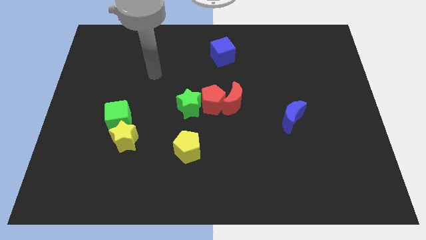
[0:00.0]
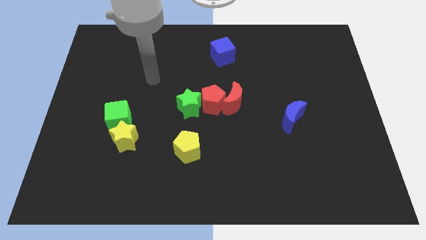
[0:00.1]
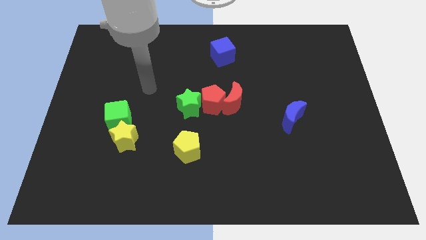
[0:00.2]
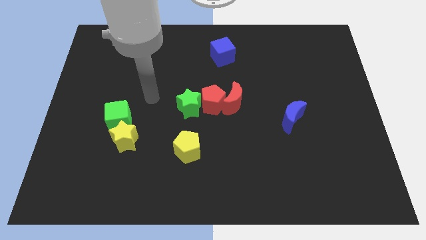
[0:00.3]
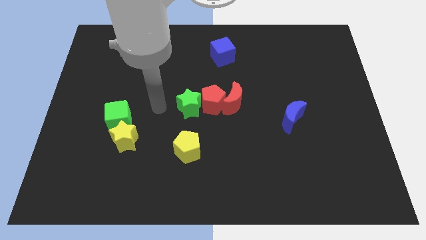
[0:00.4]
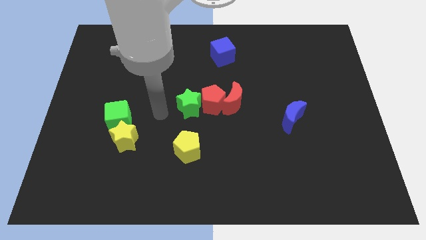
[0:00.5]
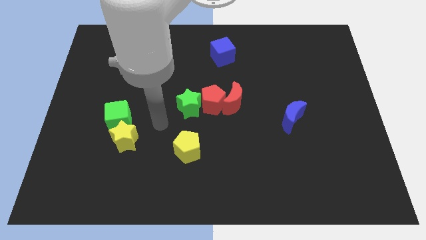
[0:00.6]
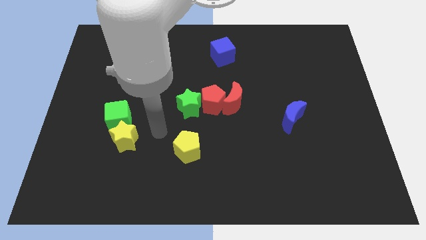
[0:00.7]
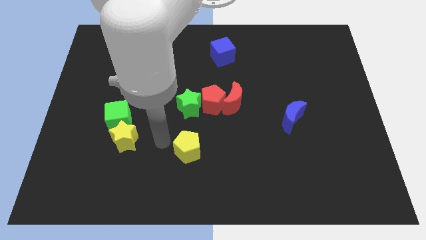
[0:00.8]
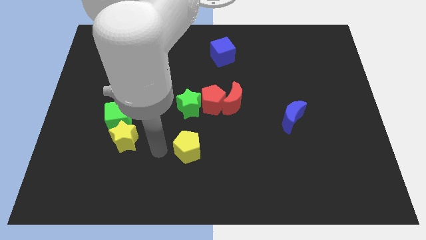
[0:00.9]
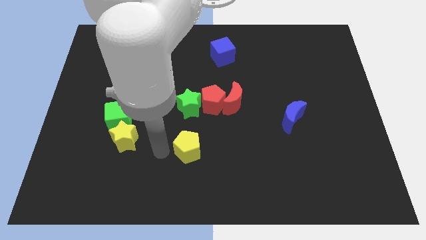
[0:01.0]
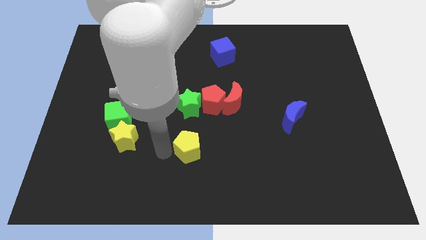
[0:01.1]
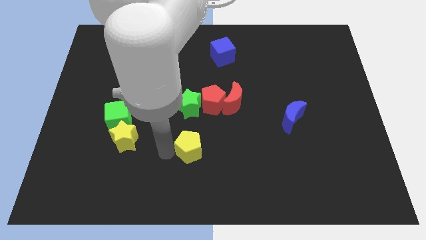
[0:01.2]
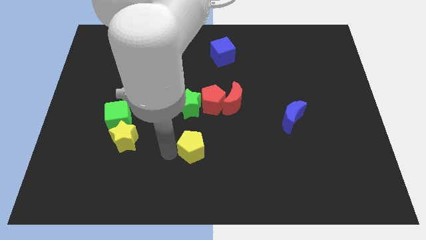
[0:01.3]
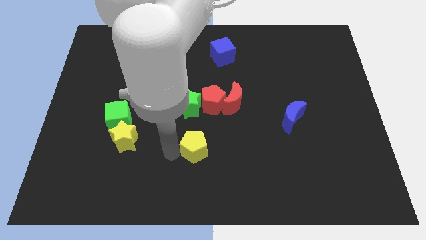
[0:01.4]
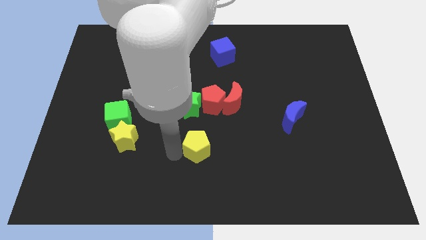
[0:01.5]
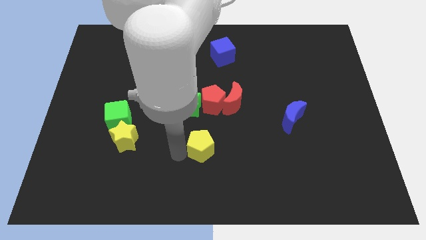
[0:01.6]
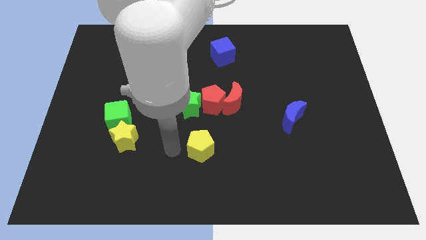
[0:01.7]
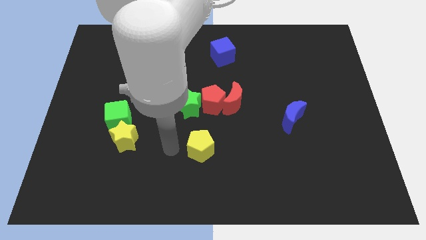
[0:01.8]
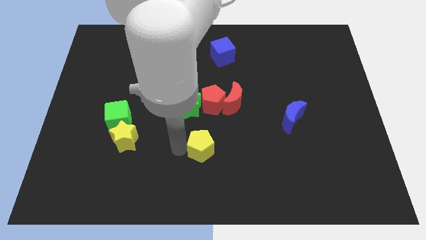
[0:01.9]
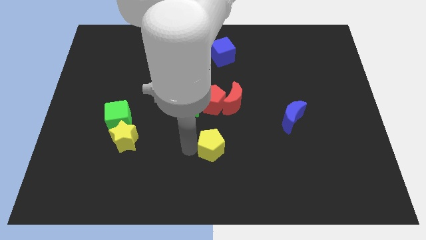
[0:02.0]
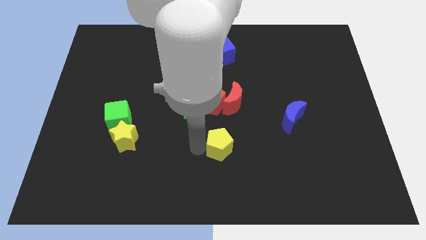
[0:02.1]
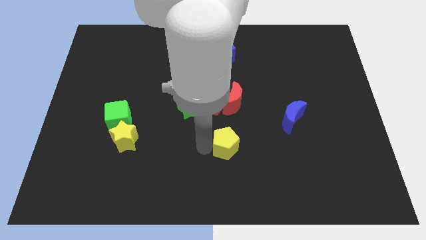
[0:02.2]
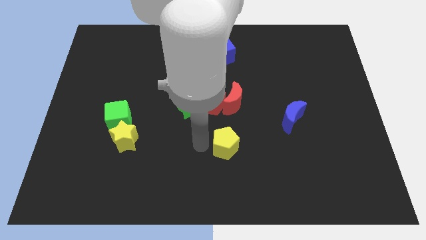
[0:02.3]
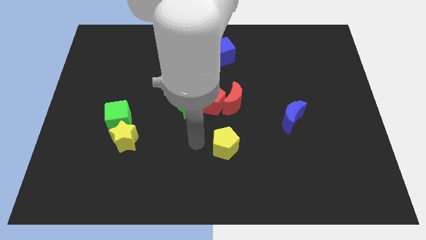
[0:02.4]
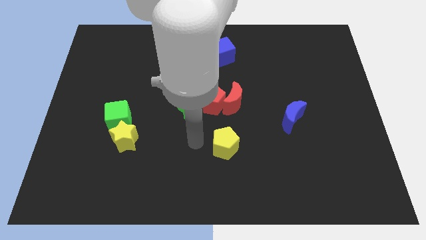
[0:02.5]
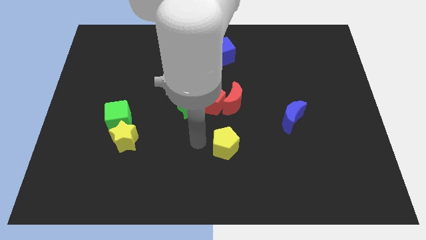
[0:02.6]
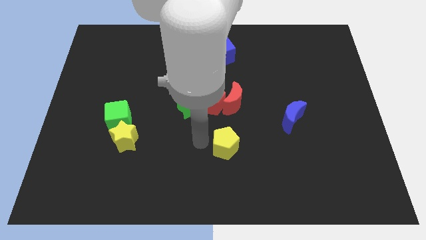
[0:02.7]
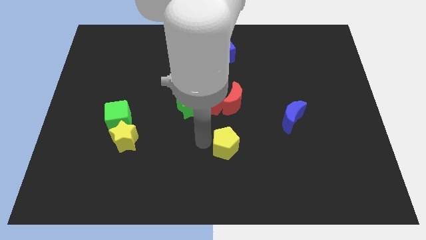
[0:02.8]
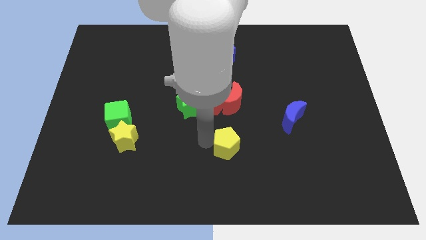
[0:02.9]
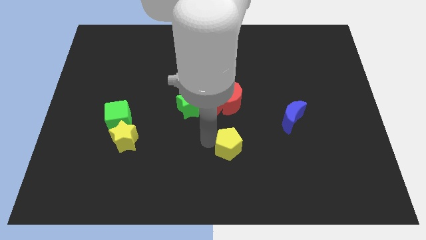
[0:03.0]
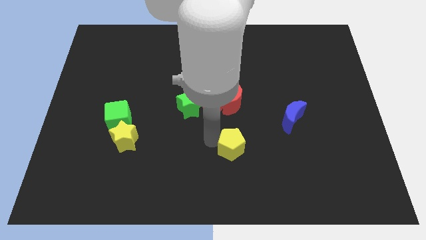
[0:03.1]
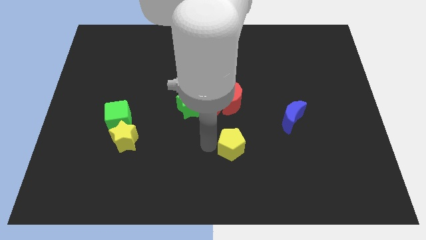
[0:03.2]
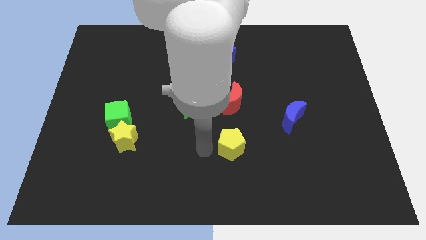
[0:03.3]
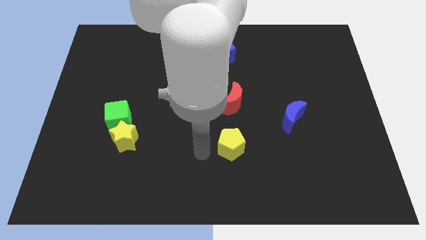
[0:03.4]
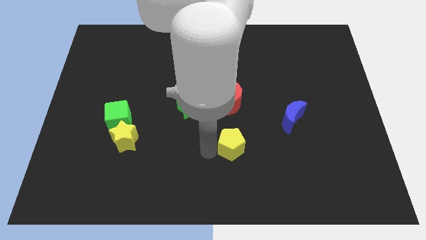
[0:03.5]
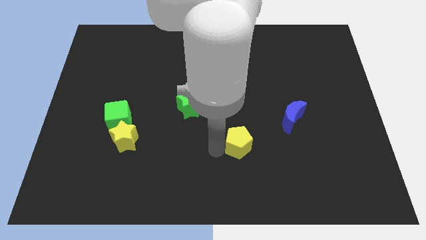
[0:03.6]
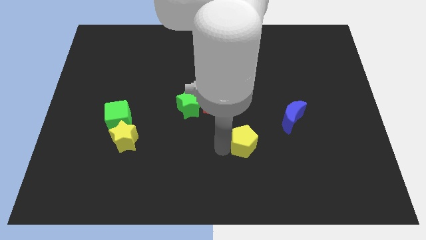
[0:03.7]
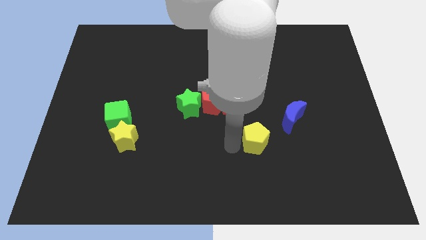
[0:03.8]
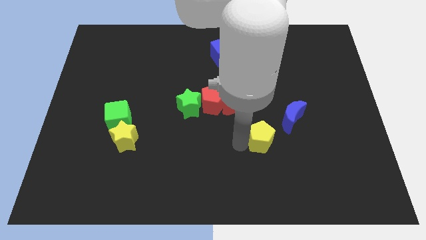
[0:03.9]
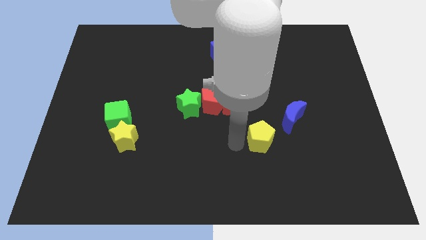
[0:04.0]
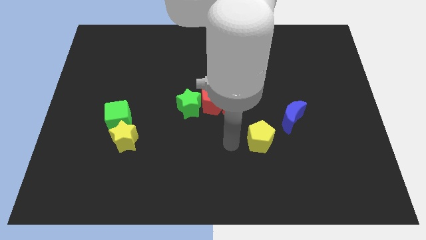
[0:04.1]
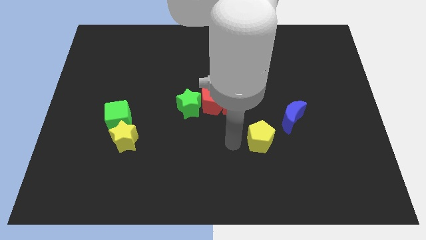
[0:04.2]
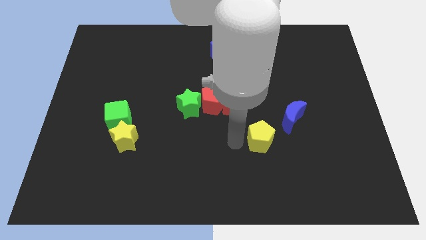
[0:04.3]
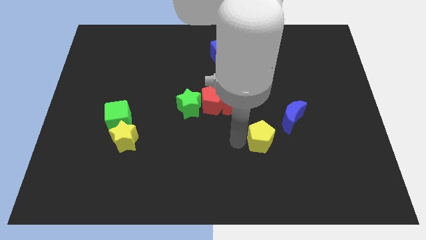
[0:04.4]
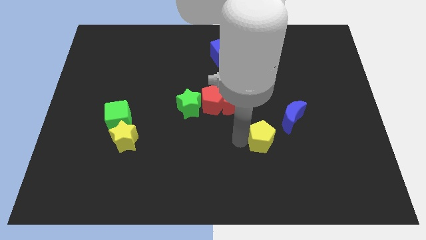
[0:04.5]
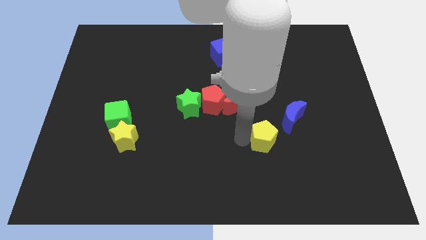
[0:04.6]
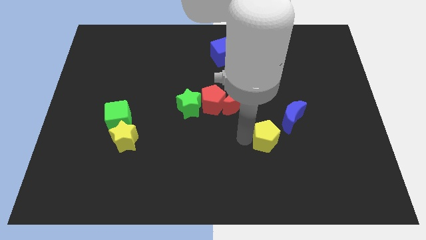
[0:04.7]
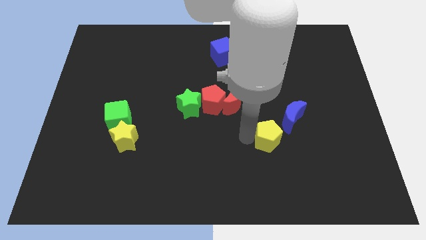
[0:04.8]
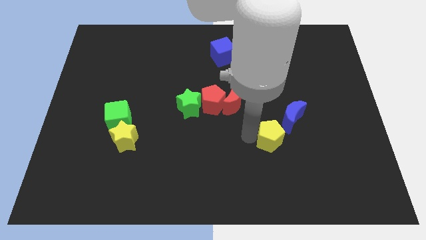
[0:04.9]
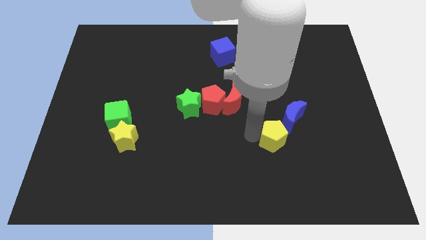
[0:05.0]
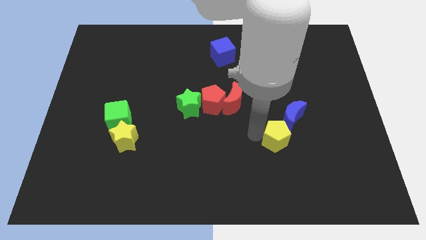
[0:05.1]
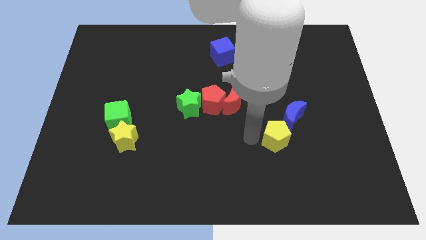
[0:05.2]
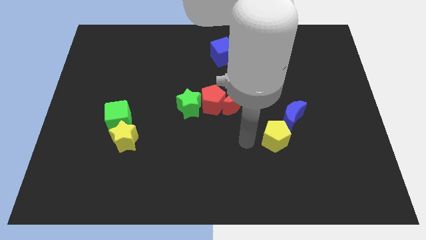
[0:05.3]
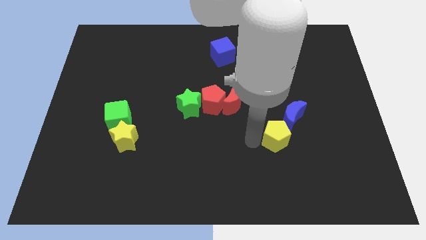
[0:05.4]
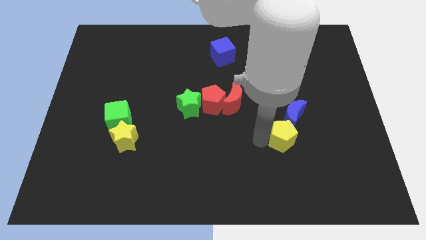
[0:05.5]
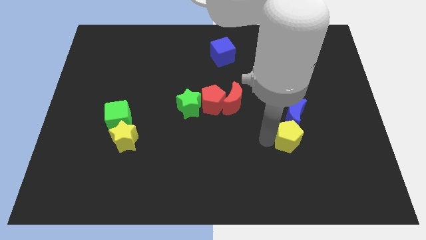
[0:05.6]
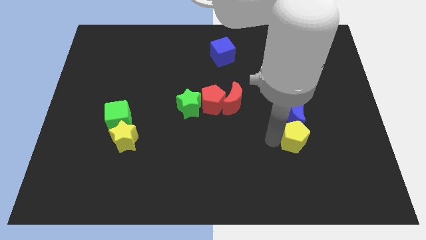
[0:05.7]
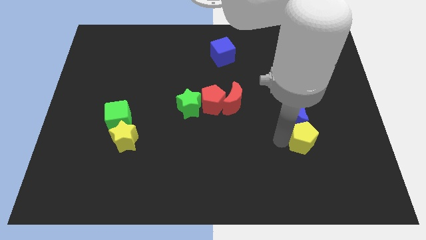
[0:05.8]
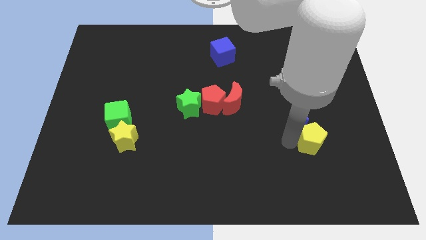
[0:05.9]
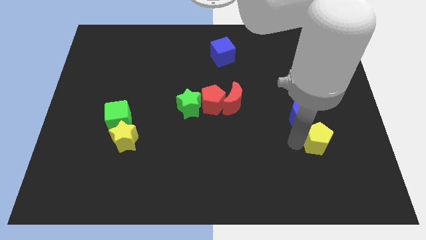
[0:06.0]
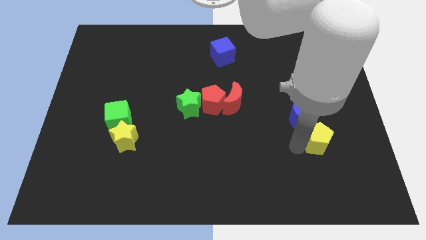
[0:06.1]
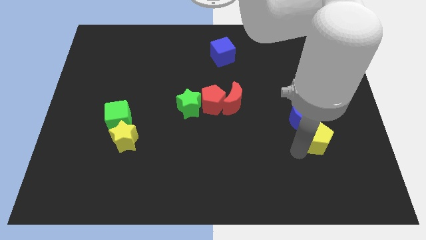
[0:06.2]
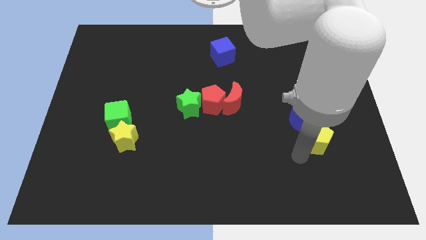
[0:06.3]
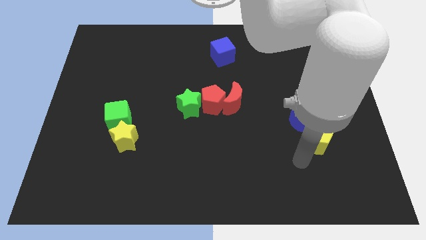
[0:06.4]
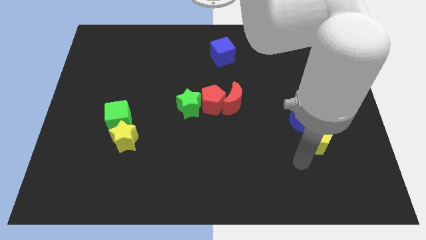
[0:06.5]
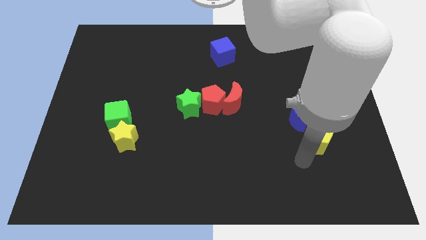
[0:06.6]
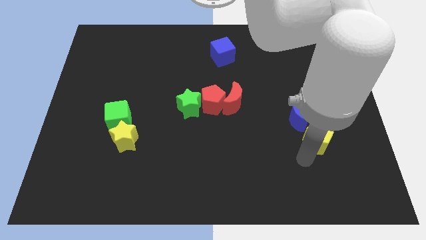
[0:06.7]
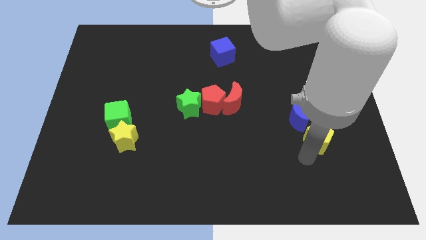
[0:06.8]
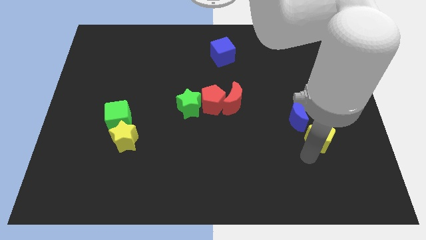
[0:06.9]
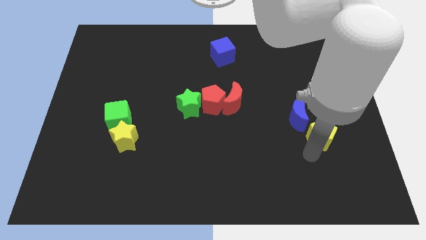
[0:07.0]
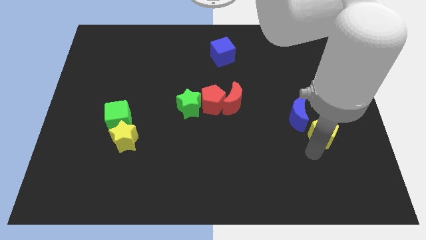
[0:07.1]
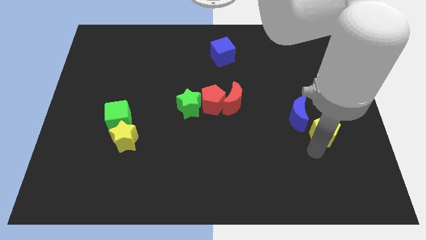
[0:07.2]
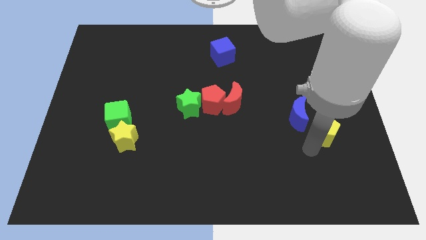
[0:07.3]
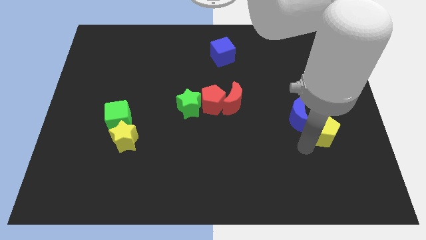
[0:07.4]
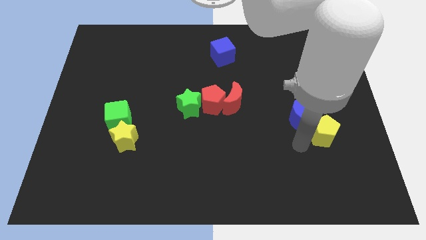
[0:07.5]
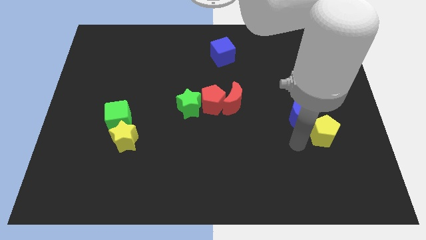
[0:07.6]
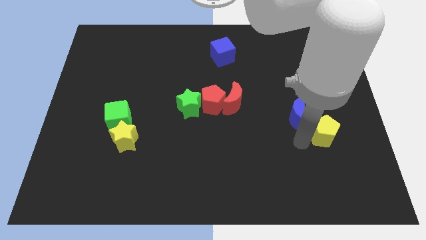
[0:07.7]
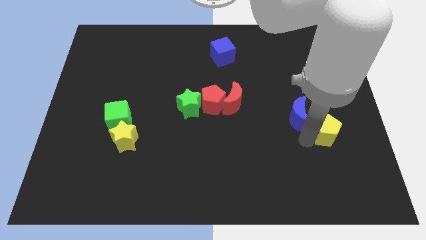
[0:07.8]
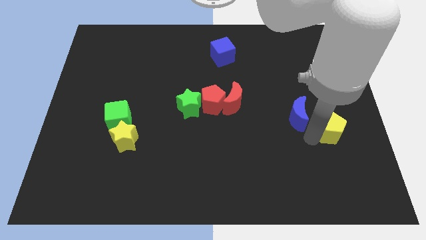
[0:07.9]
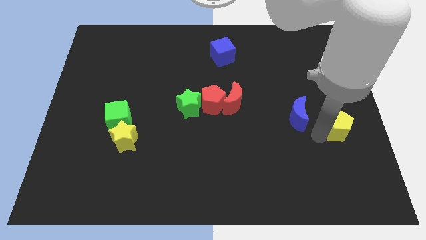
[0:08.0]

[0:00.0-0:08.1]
slide the yellow pentagon to the right side of the board
